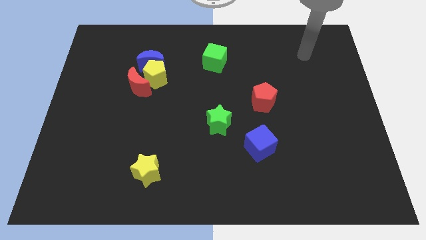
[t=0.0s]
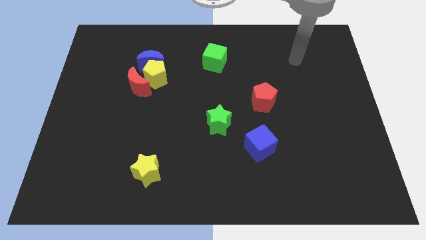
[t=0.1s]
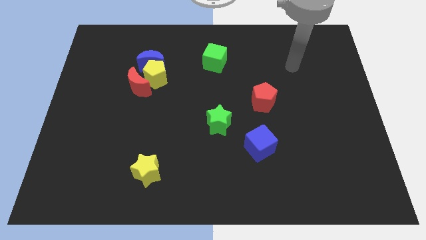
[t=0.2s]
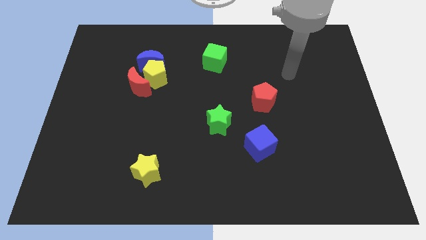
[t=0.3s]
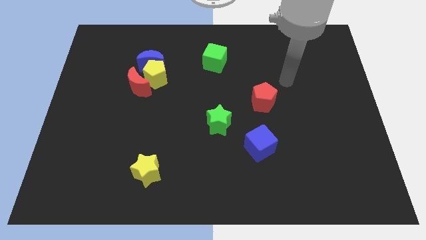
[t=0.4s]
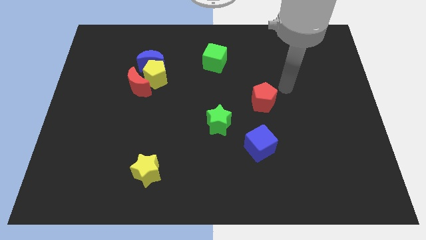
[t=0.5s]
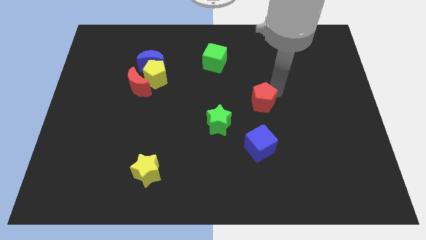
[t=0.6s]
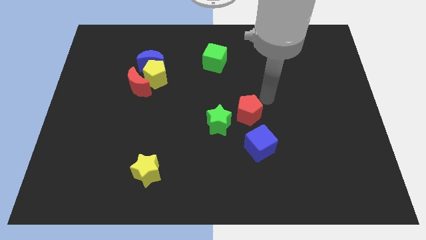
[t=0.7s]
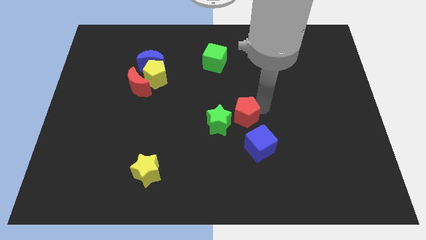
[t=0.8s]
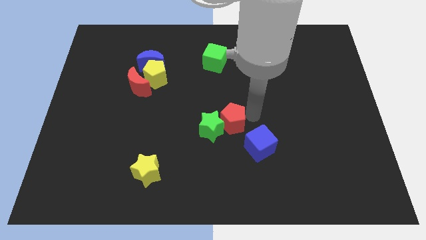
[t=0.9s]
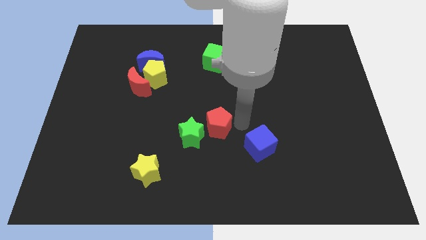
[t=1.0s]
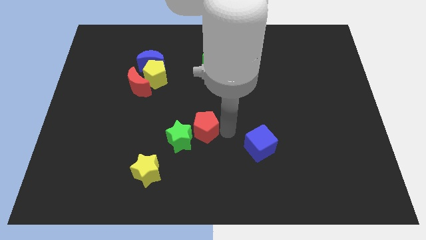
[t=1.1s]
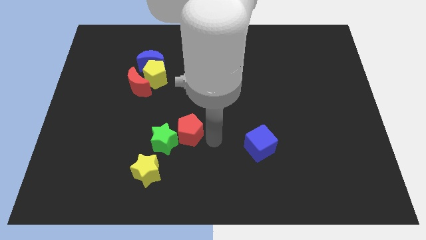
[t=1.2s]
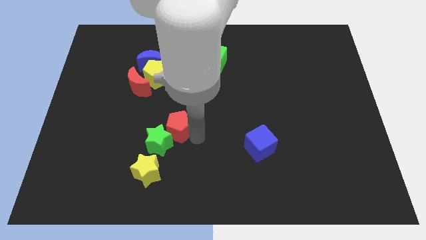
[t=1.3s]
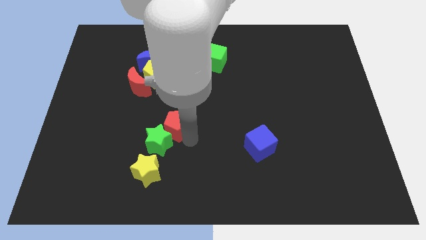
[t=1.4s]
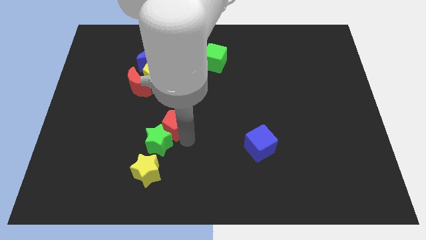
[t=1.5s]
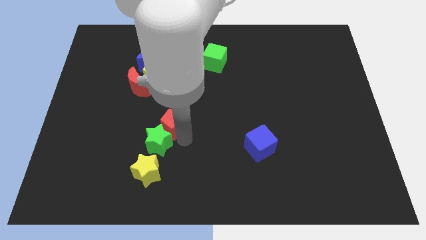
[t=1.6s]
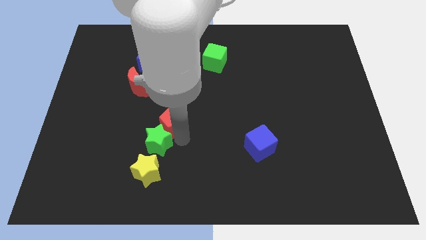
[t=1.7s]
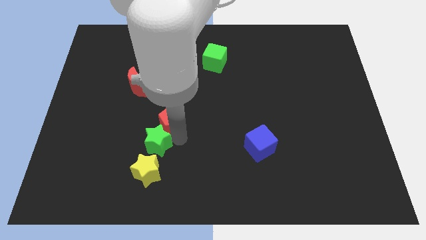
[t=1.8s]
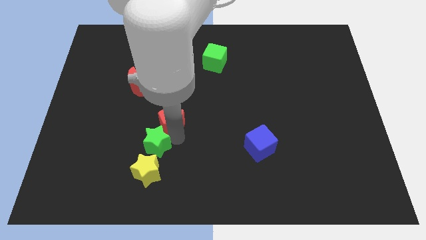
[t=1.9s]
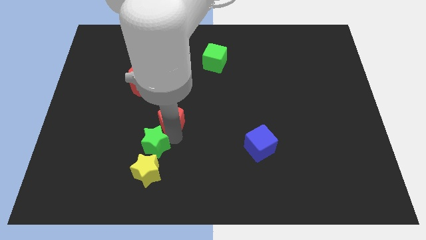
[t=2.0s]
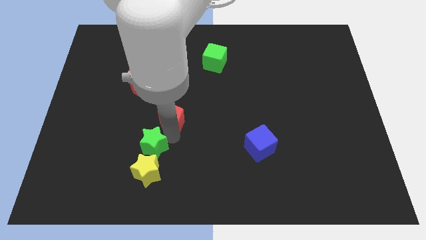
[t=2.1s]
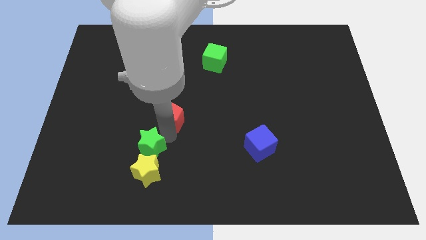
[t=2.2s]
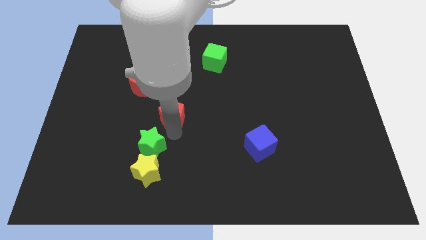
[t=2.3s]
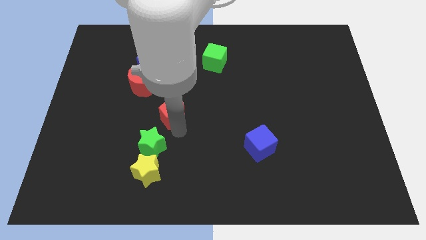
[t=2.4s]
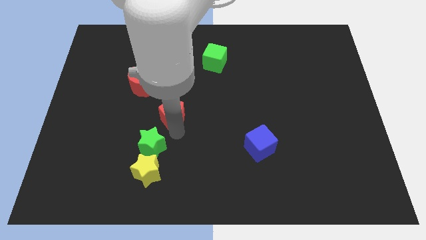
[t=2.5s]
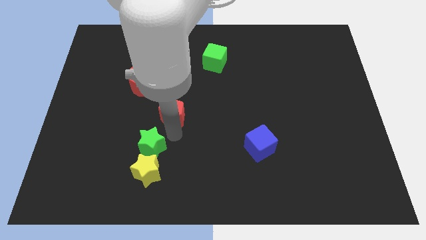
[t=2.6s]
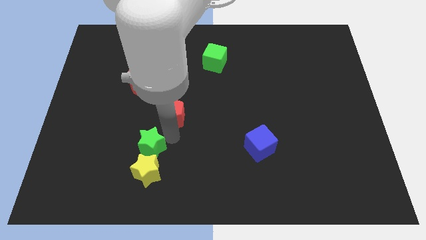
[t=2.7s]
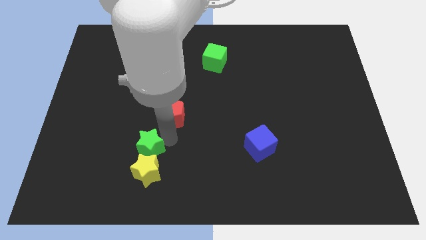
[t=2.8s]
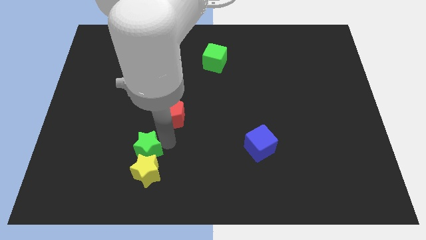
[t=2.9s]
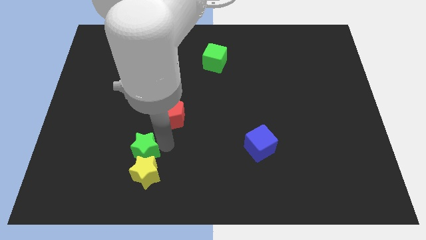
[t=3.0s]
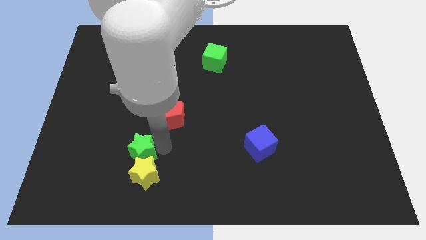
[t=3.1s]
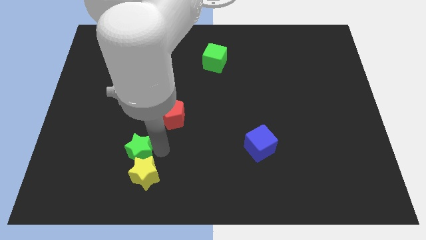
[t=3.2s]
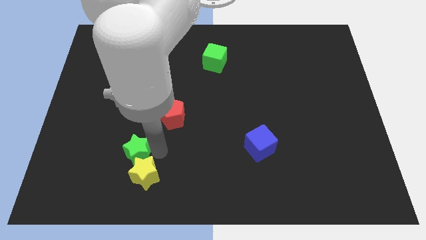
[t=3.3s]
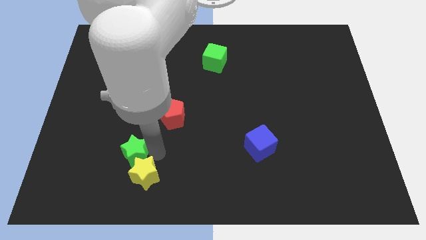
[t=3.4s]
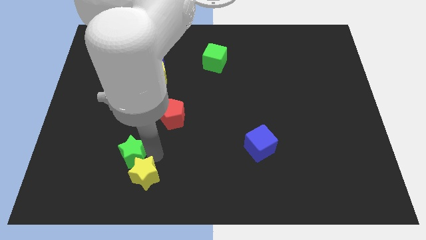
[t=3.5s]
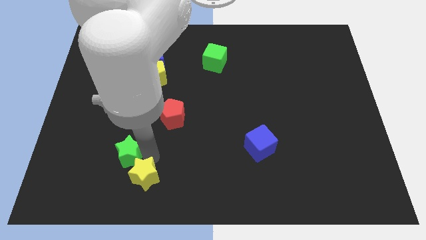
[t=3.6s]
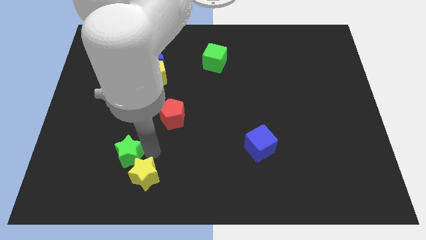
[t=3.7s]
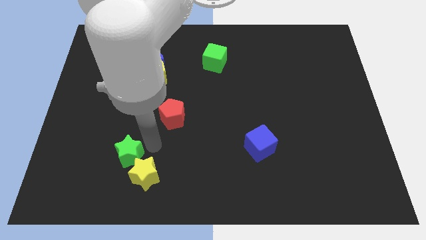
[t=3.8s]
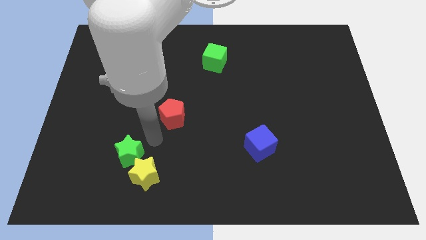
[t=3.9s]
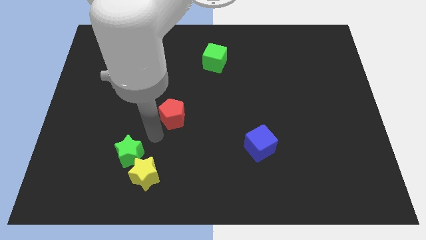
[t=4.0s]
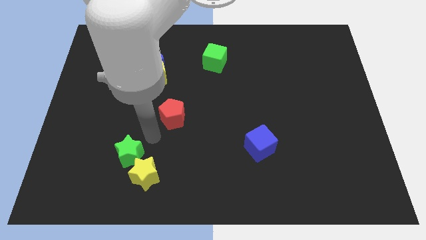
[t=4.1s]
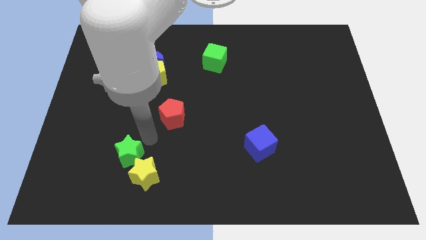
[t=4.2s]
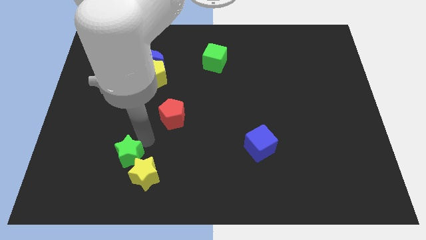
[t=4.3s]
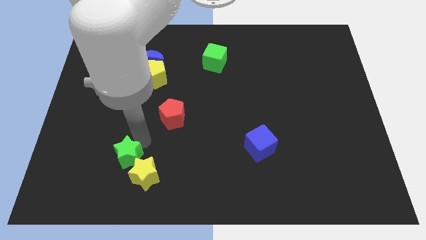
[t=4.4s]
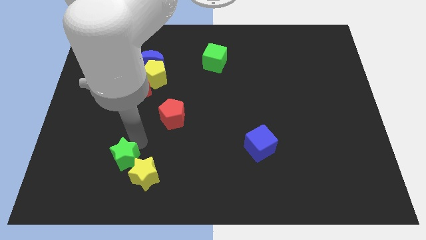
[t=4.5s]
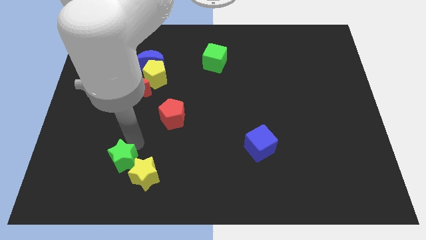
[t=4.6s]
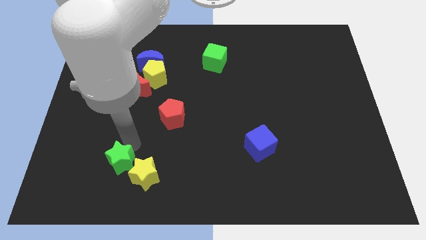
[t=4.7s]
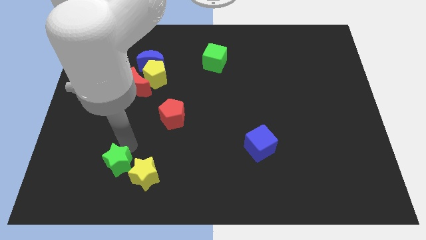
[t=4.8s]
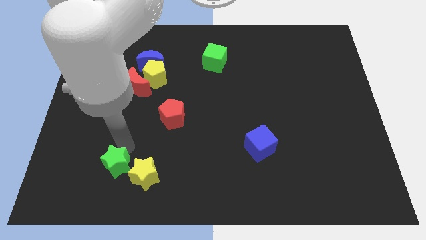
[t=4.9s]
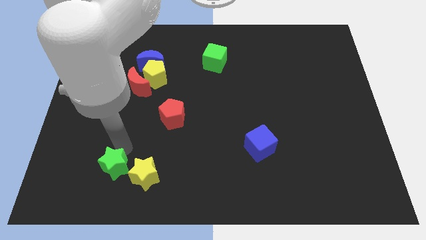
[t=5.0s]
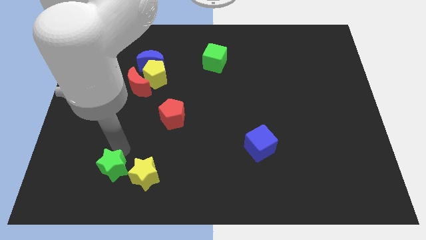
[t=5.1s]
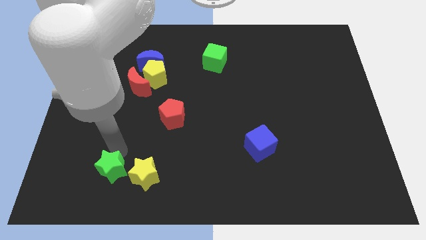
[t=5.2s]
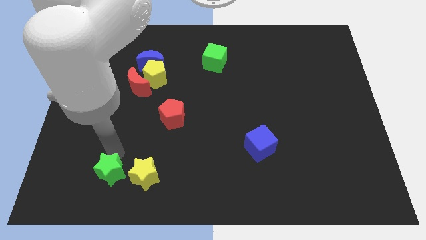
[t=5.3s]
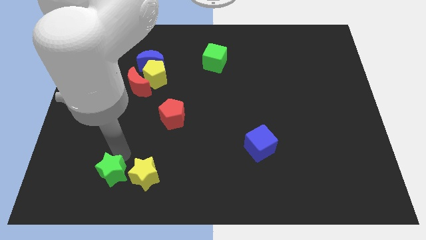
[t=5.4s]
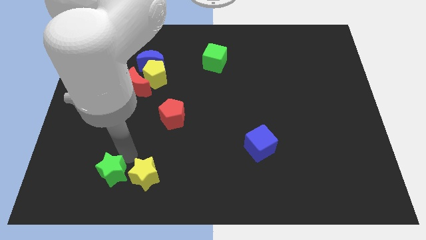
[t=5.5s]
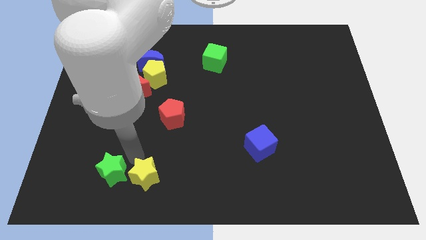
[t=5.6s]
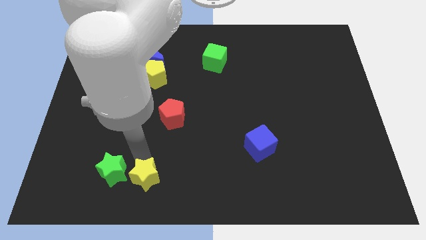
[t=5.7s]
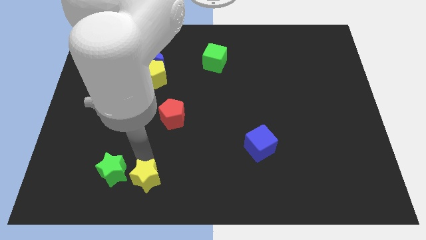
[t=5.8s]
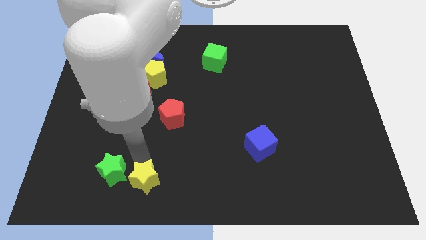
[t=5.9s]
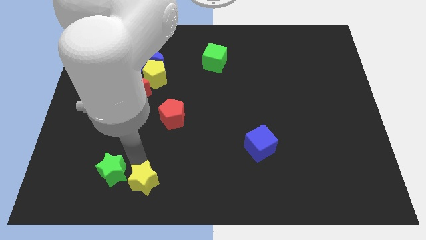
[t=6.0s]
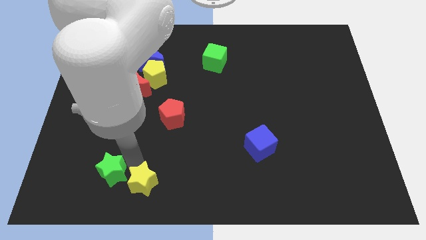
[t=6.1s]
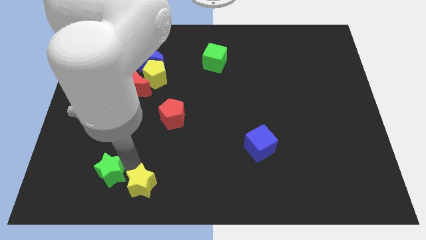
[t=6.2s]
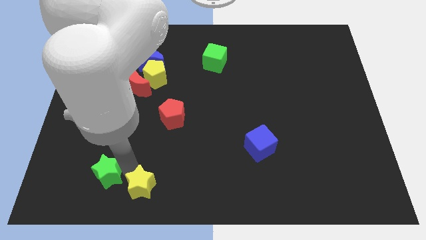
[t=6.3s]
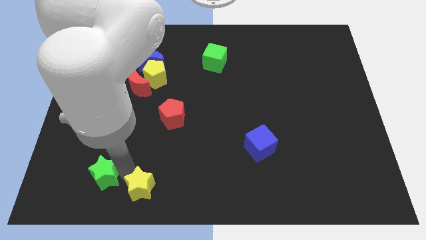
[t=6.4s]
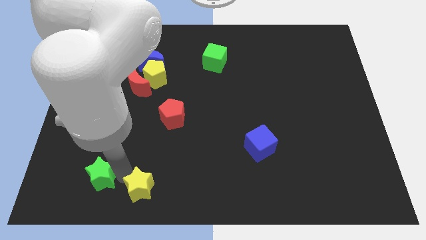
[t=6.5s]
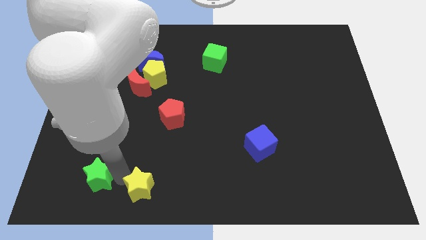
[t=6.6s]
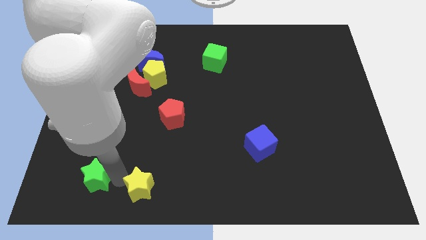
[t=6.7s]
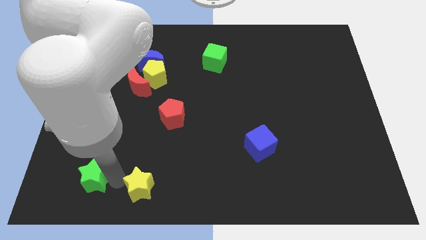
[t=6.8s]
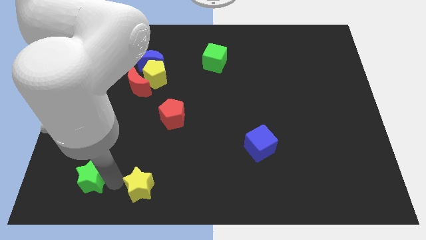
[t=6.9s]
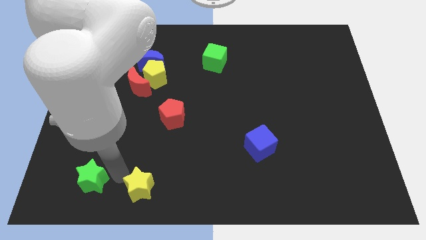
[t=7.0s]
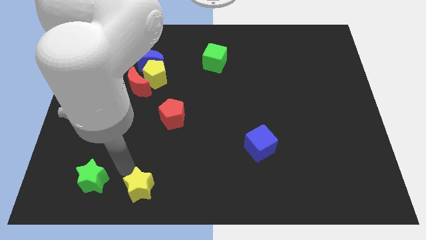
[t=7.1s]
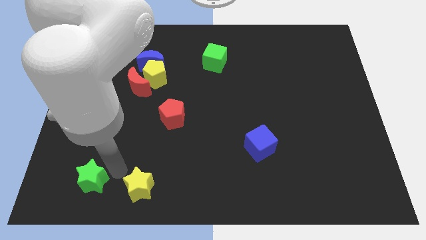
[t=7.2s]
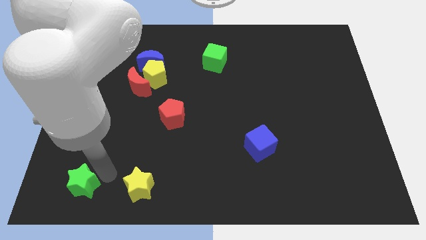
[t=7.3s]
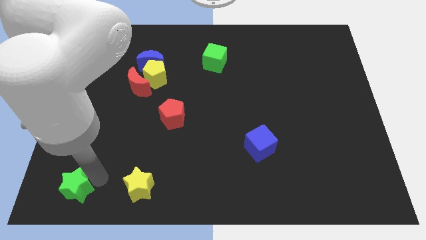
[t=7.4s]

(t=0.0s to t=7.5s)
push the green star to the bottom left
